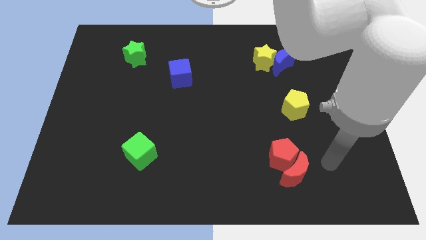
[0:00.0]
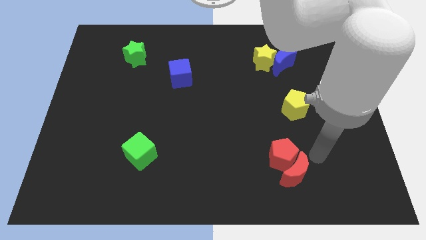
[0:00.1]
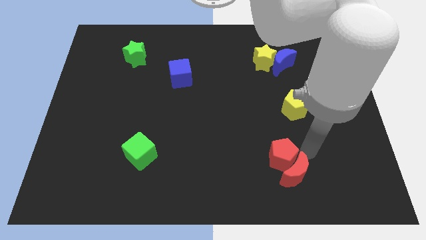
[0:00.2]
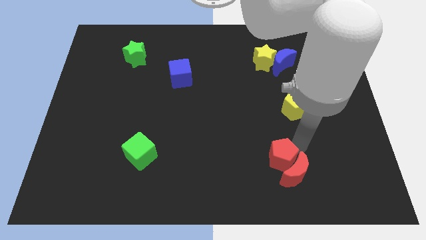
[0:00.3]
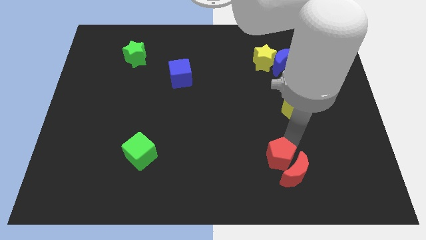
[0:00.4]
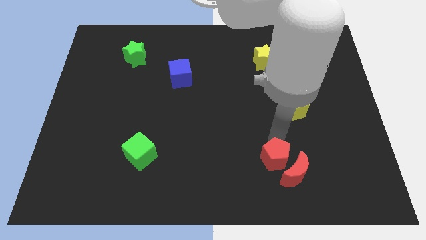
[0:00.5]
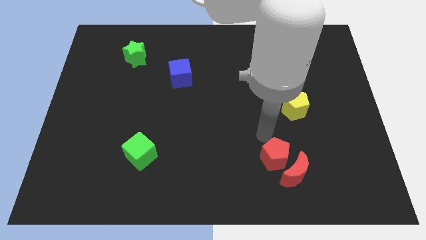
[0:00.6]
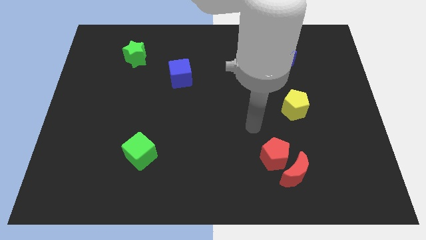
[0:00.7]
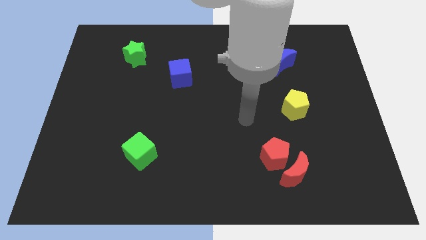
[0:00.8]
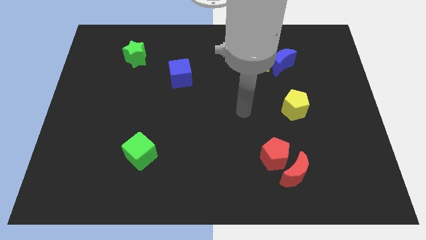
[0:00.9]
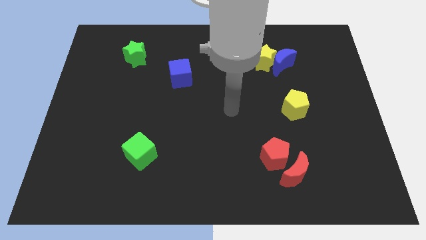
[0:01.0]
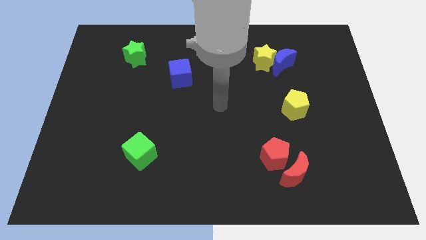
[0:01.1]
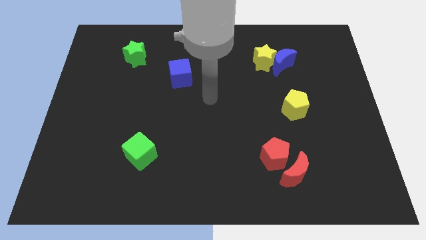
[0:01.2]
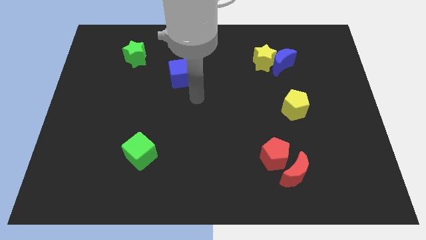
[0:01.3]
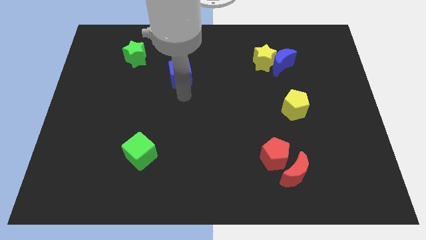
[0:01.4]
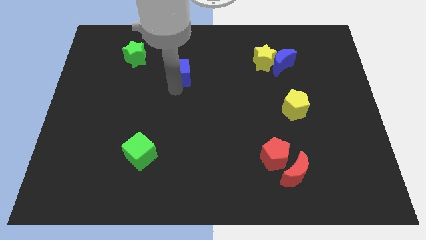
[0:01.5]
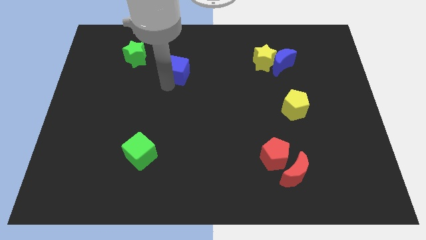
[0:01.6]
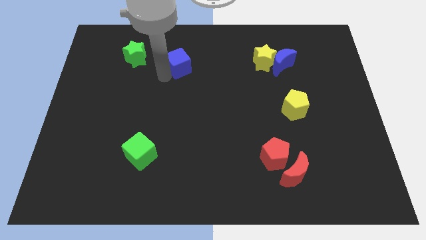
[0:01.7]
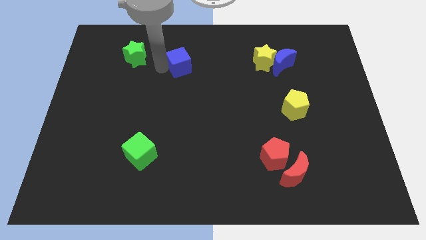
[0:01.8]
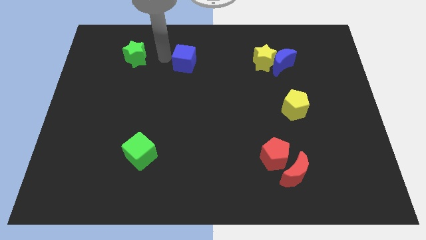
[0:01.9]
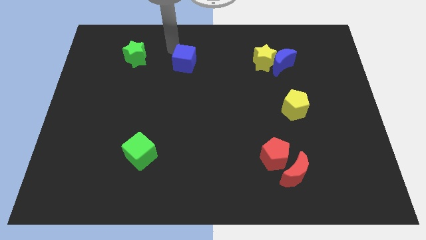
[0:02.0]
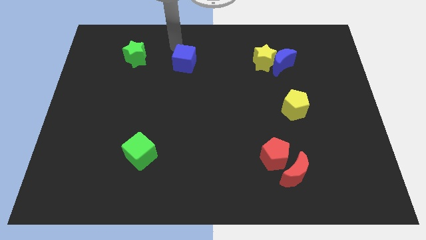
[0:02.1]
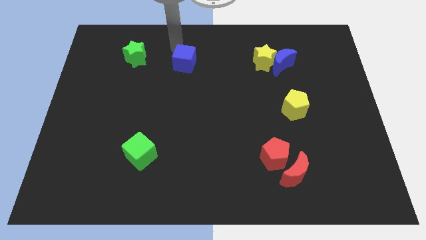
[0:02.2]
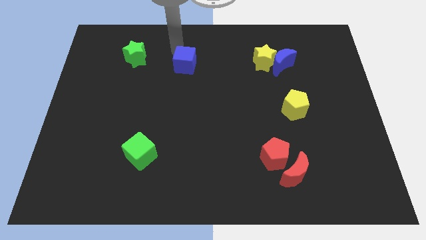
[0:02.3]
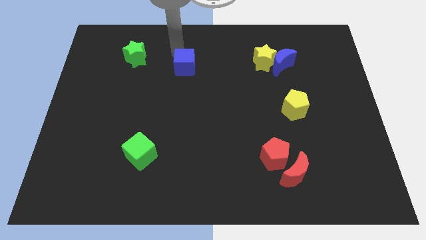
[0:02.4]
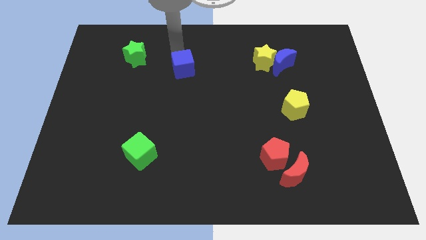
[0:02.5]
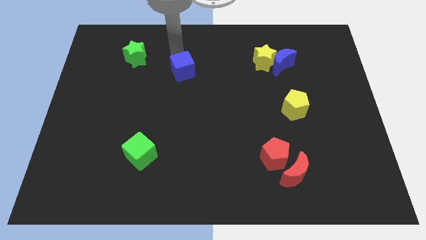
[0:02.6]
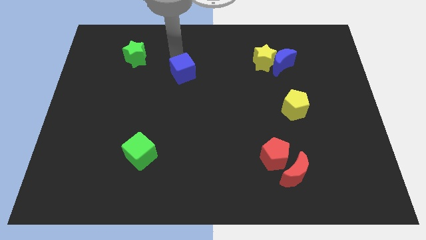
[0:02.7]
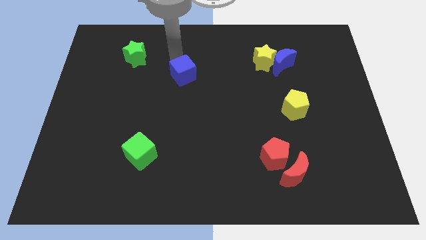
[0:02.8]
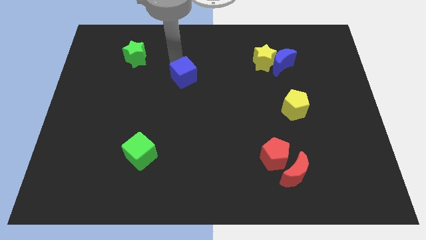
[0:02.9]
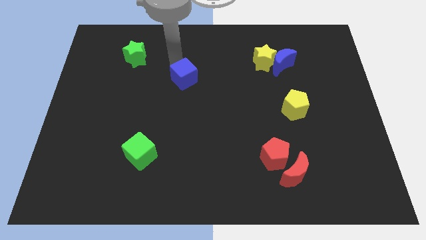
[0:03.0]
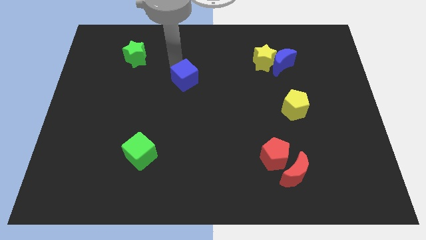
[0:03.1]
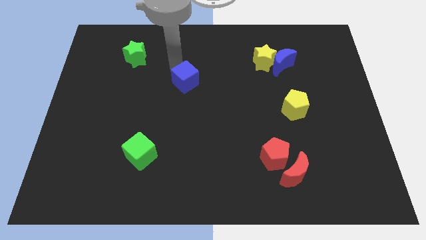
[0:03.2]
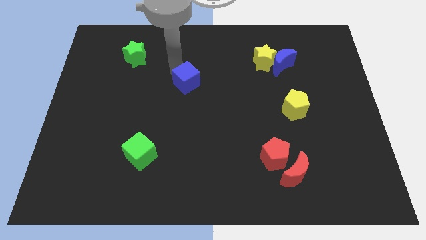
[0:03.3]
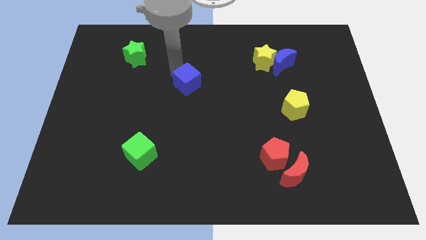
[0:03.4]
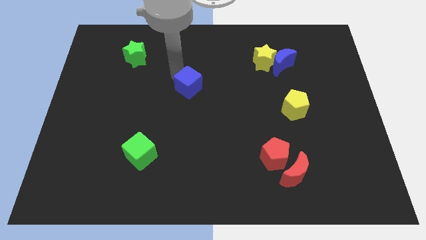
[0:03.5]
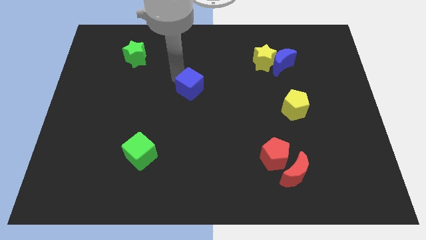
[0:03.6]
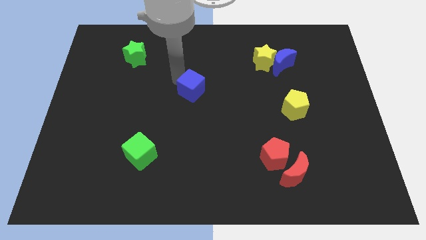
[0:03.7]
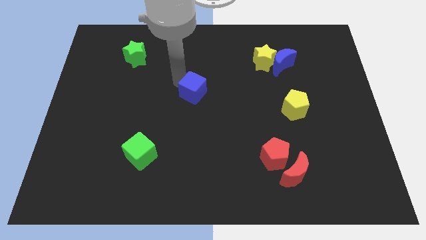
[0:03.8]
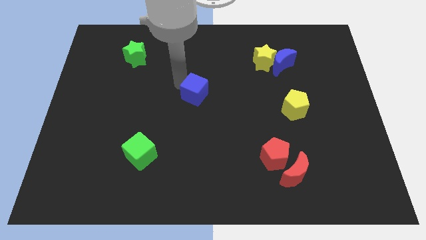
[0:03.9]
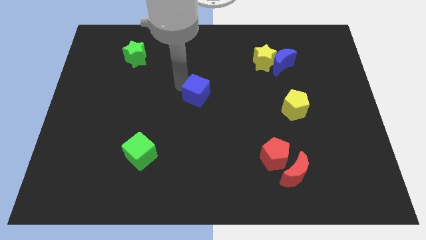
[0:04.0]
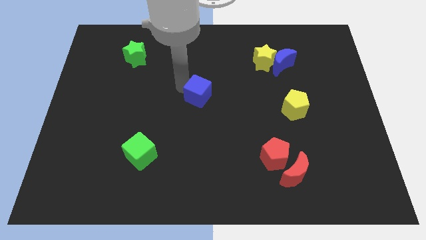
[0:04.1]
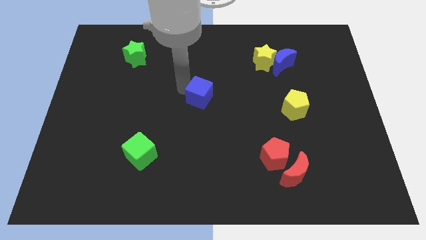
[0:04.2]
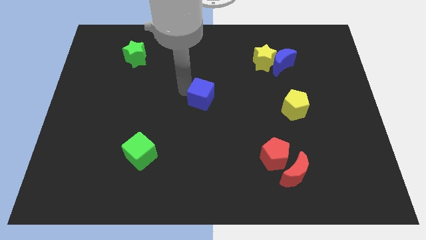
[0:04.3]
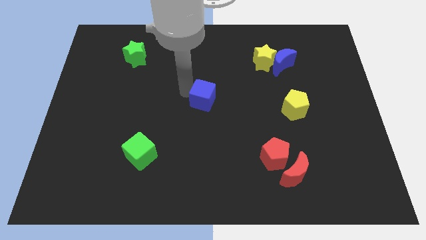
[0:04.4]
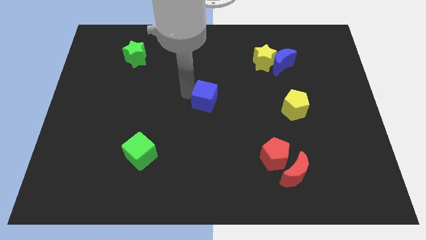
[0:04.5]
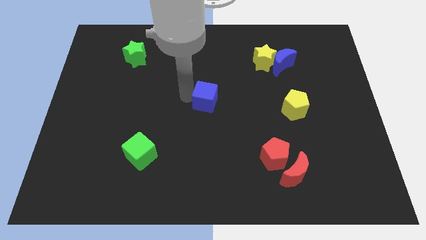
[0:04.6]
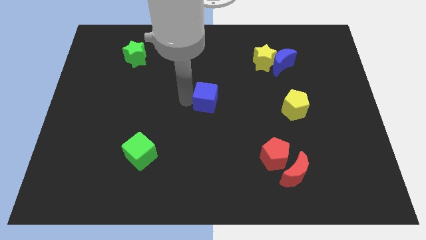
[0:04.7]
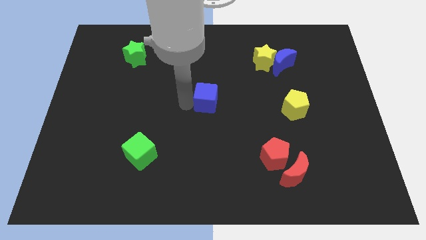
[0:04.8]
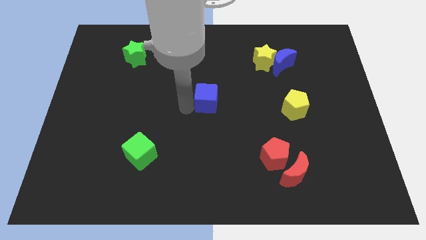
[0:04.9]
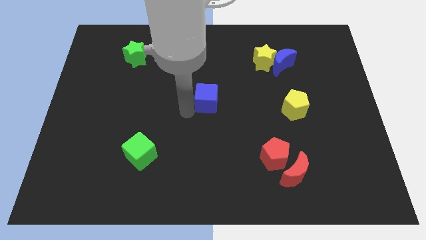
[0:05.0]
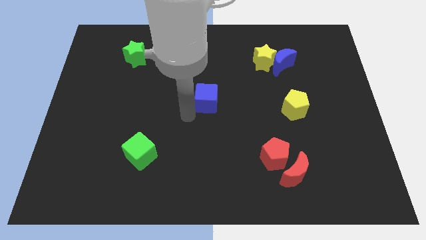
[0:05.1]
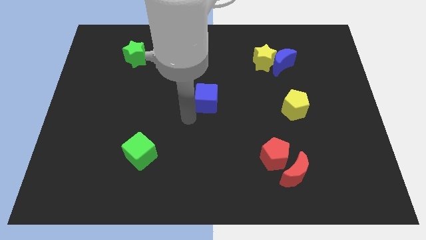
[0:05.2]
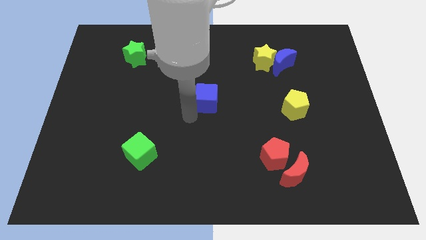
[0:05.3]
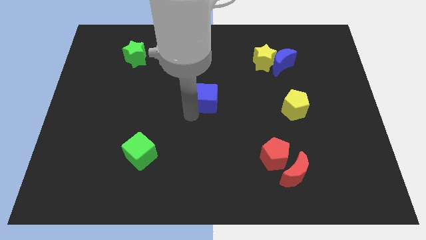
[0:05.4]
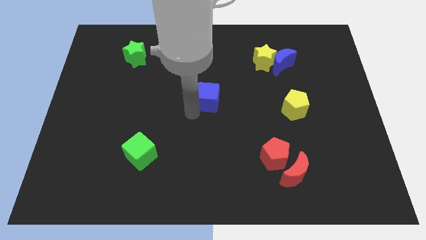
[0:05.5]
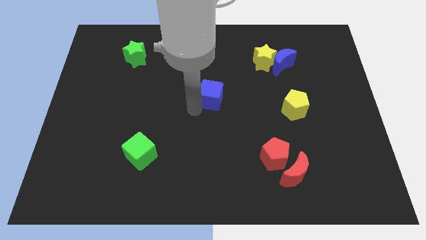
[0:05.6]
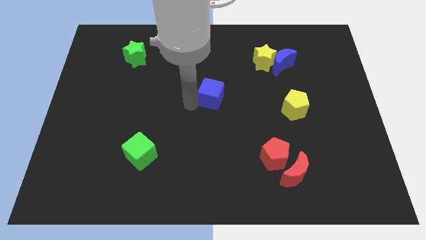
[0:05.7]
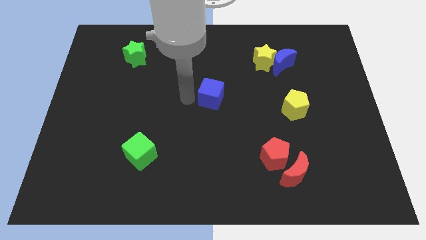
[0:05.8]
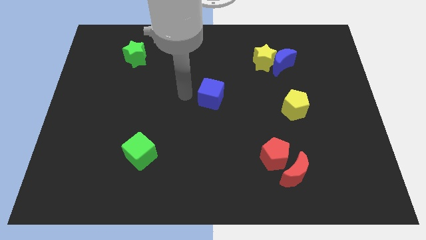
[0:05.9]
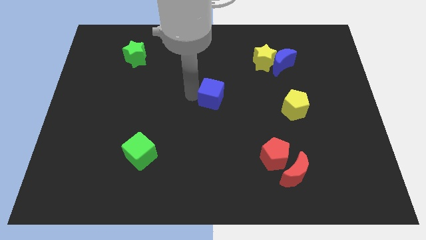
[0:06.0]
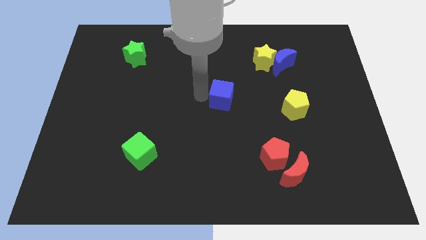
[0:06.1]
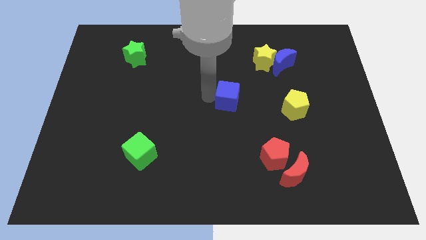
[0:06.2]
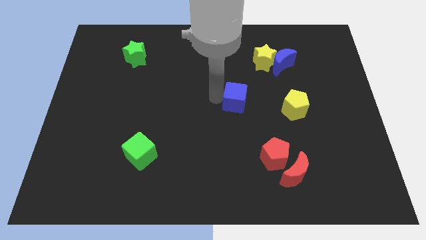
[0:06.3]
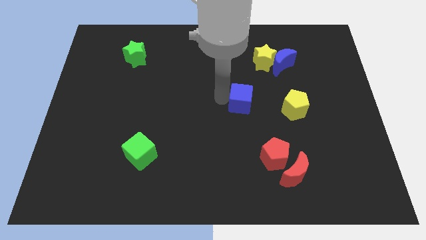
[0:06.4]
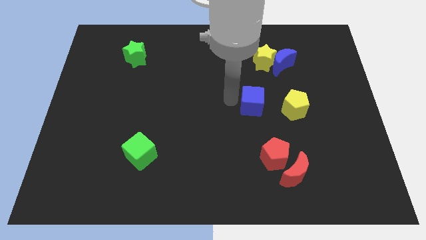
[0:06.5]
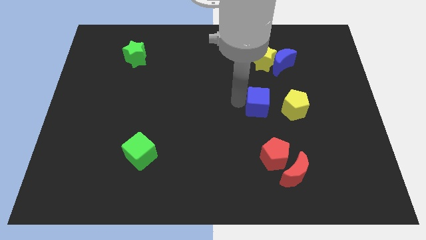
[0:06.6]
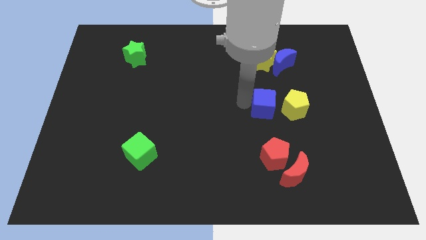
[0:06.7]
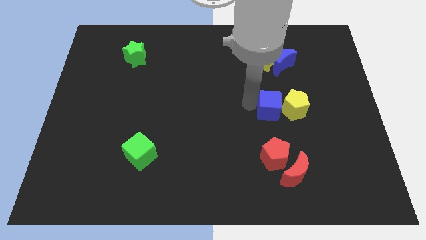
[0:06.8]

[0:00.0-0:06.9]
slide the blue cube towards the yellow pentagon
